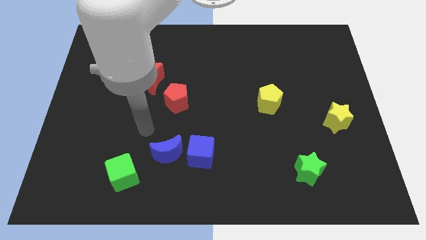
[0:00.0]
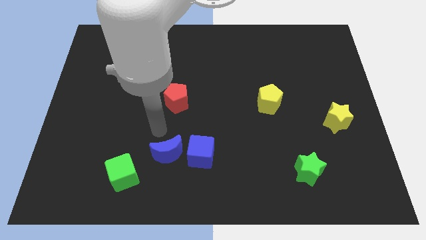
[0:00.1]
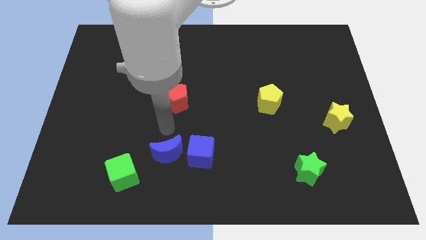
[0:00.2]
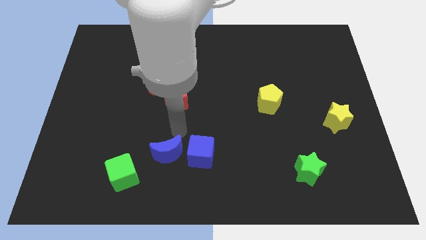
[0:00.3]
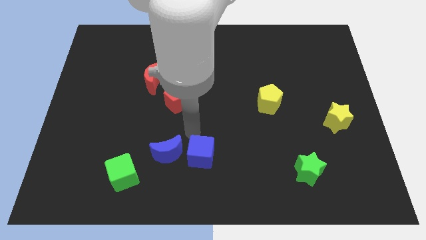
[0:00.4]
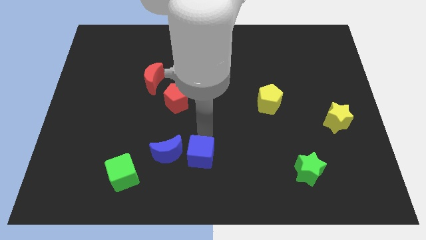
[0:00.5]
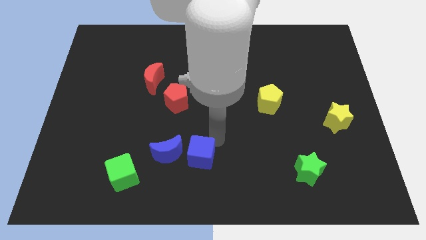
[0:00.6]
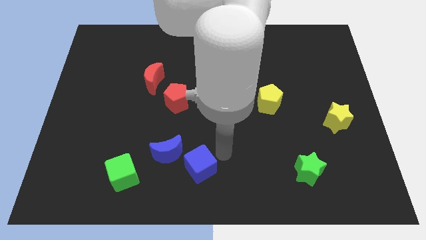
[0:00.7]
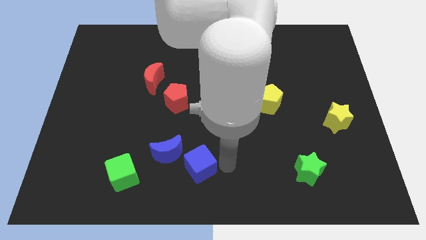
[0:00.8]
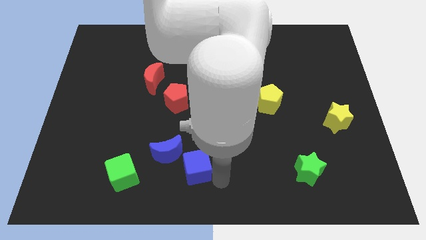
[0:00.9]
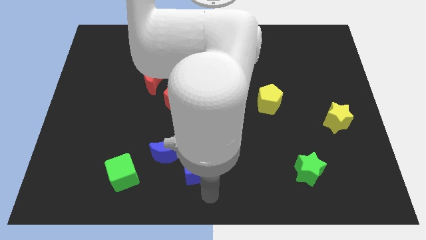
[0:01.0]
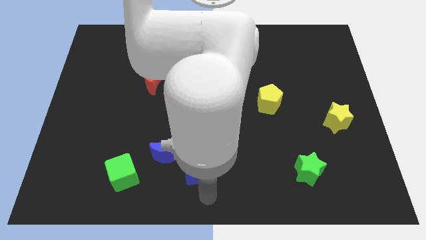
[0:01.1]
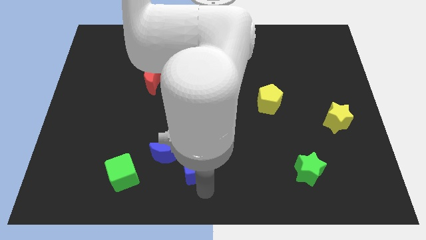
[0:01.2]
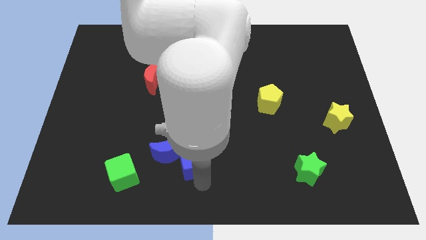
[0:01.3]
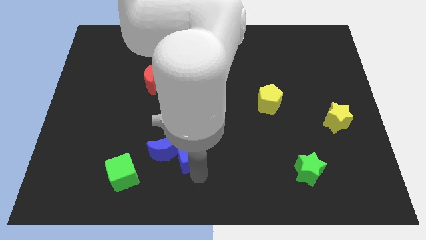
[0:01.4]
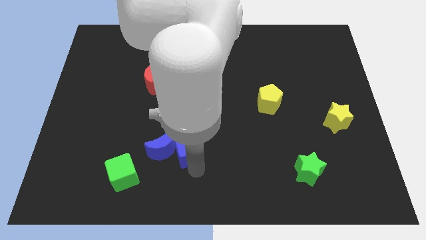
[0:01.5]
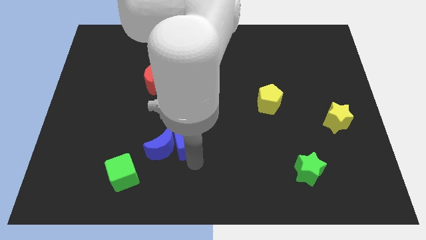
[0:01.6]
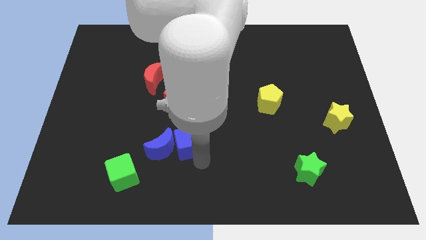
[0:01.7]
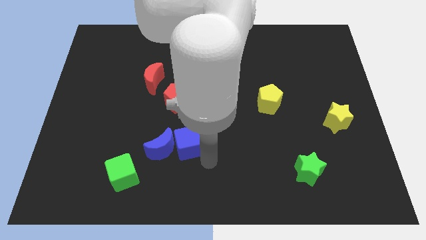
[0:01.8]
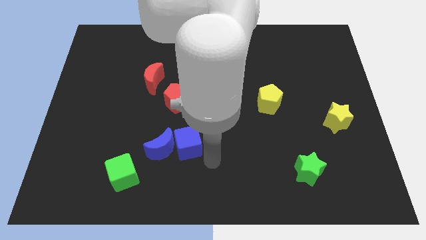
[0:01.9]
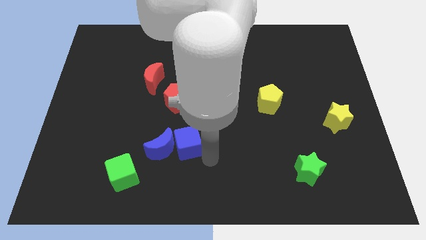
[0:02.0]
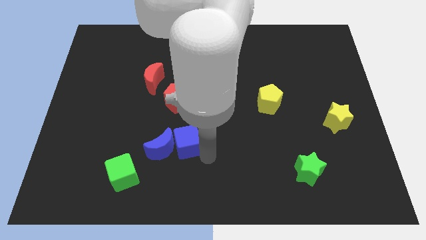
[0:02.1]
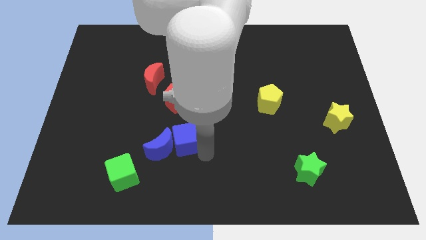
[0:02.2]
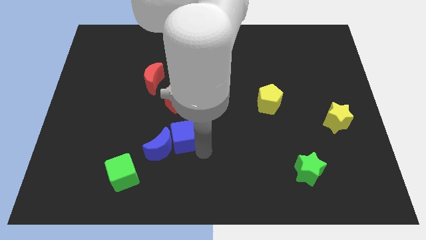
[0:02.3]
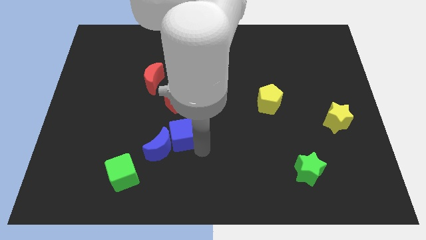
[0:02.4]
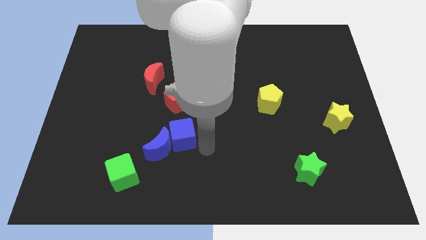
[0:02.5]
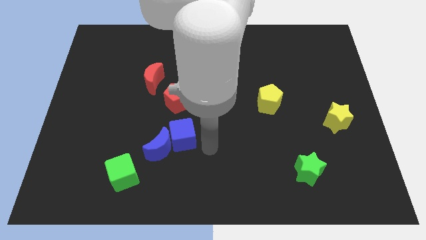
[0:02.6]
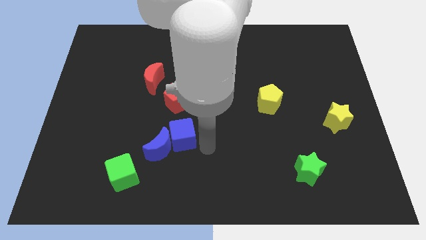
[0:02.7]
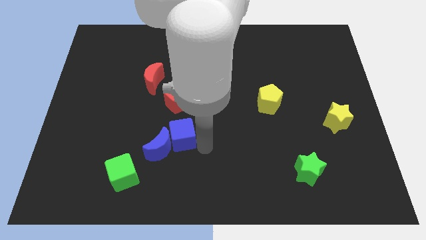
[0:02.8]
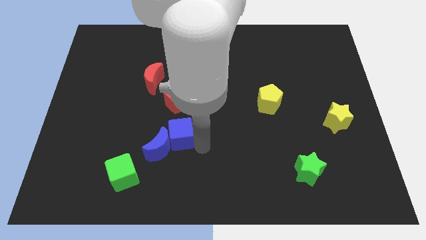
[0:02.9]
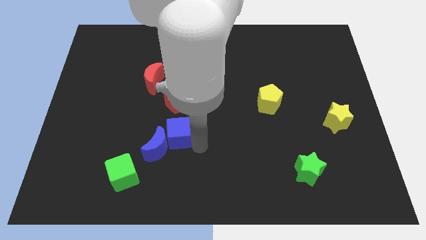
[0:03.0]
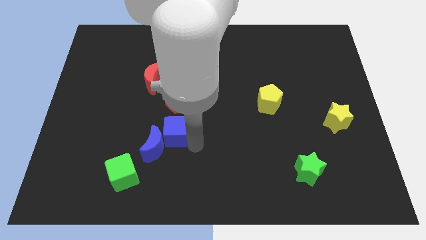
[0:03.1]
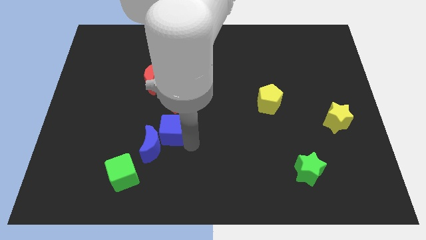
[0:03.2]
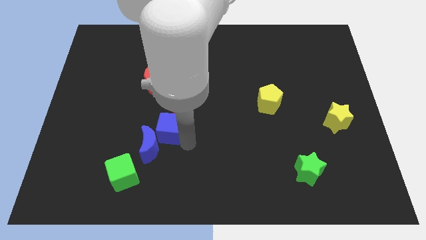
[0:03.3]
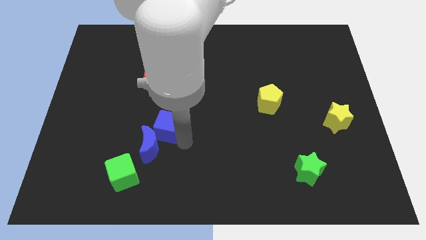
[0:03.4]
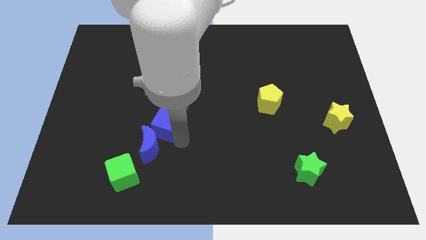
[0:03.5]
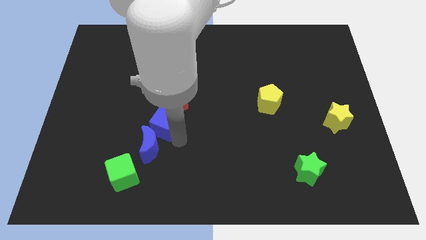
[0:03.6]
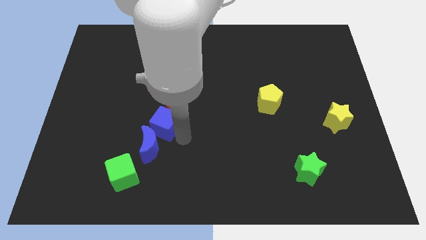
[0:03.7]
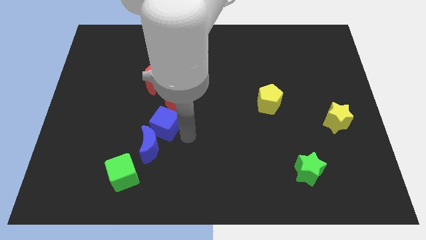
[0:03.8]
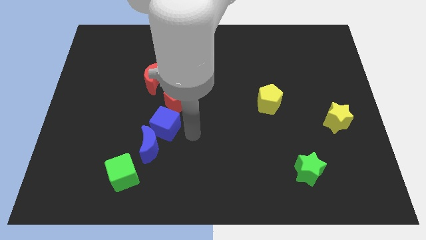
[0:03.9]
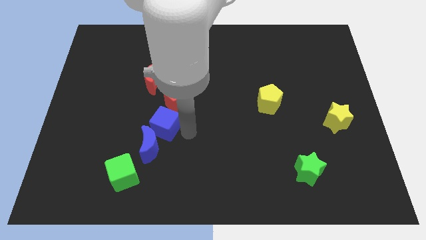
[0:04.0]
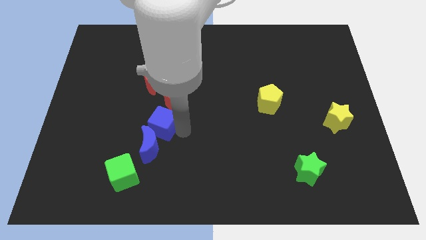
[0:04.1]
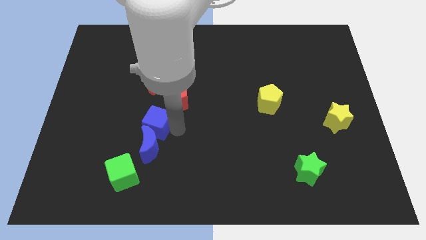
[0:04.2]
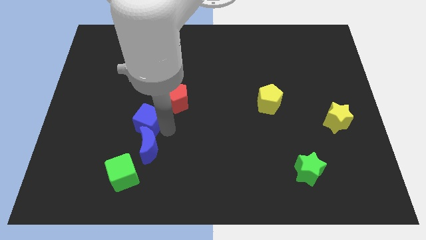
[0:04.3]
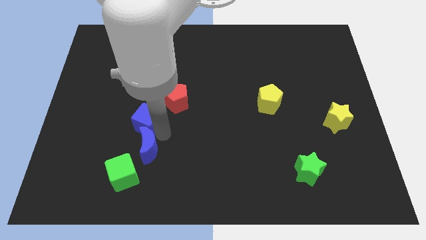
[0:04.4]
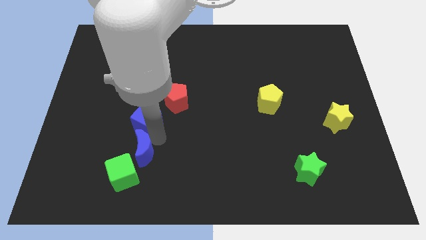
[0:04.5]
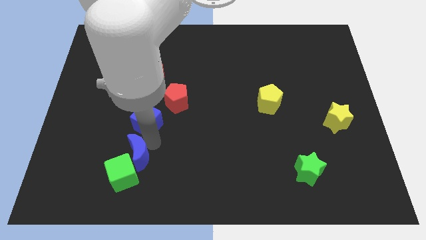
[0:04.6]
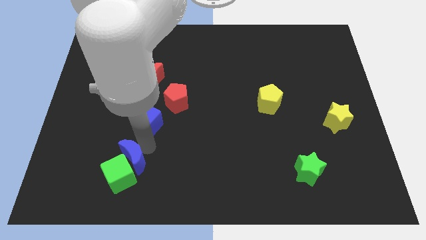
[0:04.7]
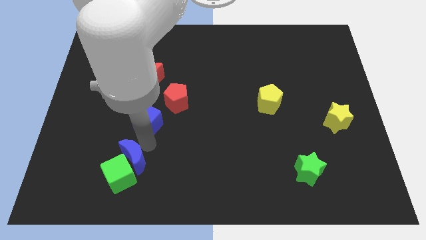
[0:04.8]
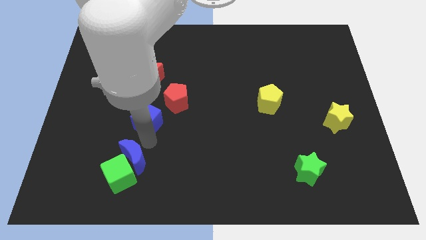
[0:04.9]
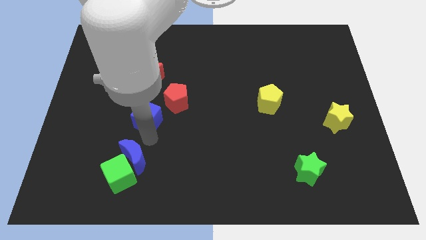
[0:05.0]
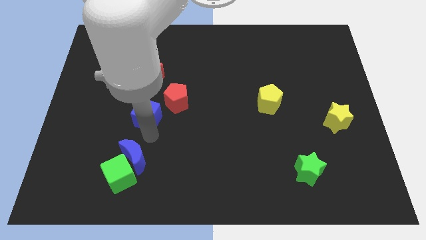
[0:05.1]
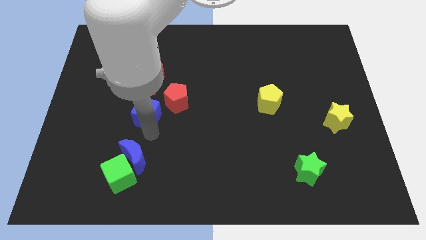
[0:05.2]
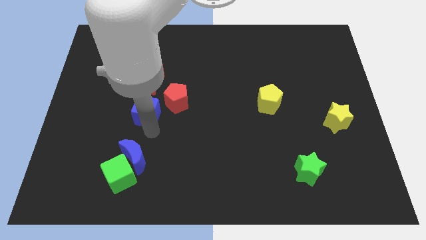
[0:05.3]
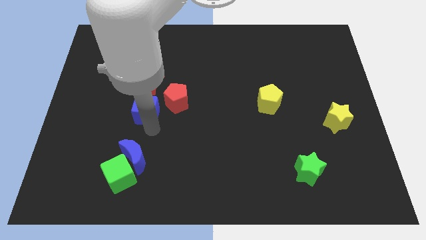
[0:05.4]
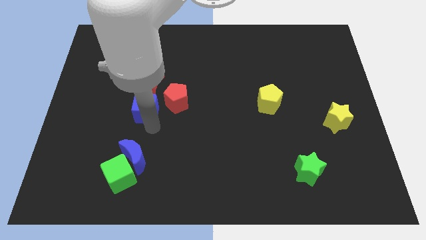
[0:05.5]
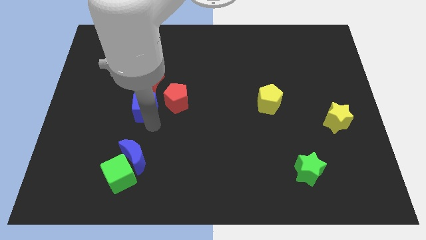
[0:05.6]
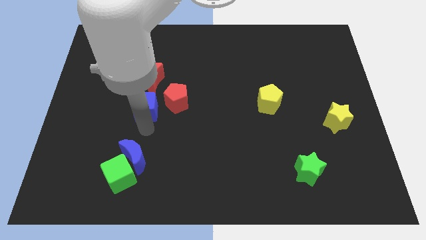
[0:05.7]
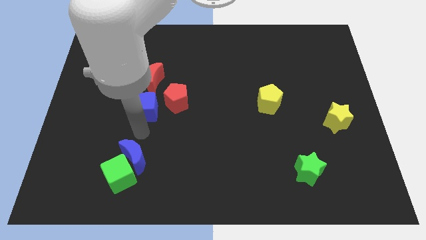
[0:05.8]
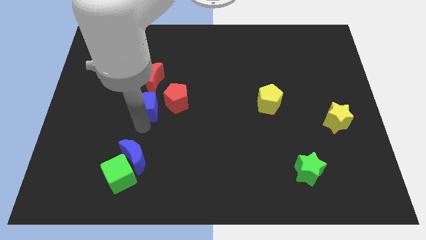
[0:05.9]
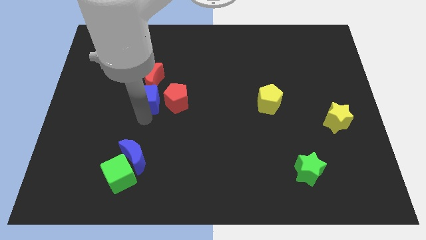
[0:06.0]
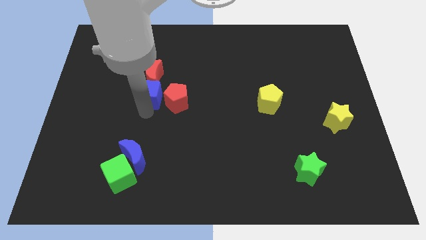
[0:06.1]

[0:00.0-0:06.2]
push the blue cube next to the red moon

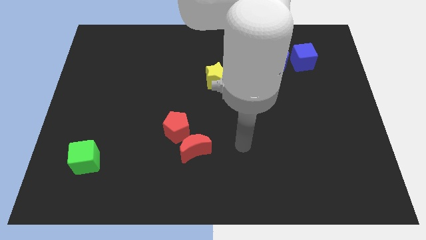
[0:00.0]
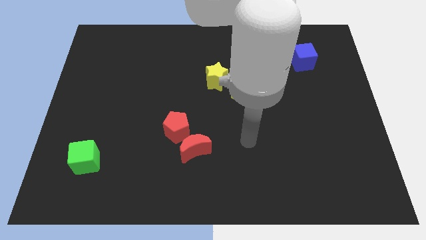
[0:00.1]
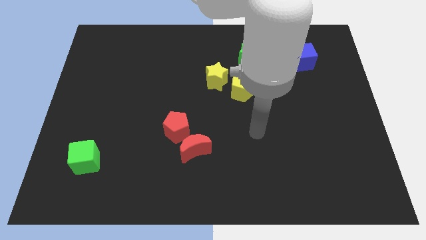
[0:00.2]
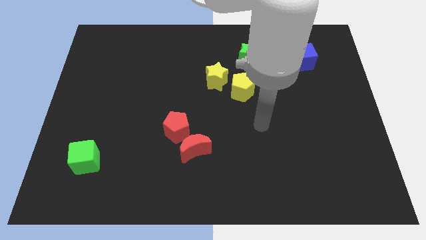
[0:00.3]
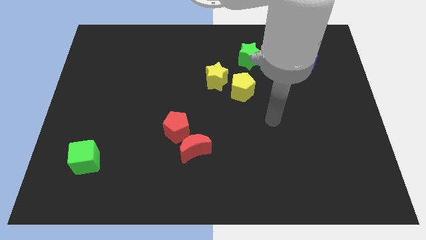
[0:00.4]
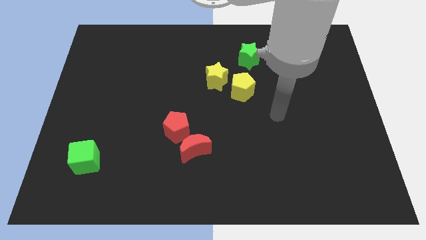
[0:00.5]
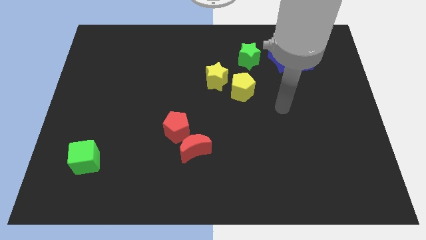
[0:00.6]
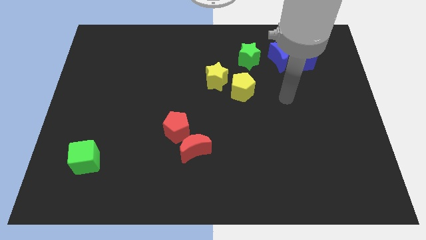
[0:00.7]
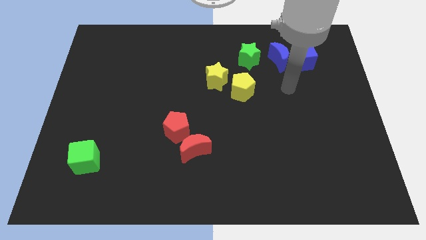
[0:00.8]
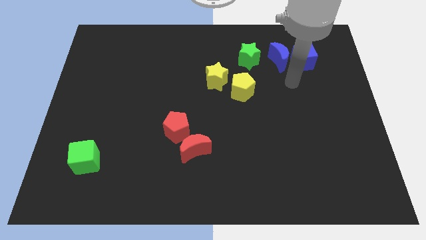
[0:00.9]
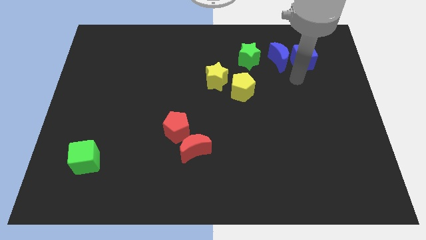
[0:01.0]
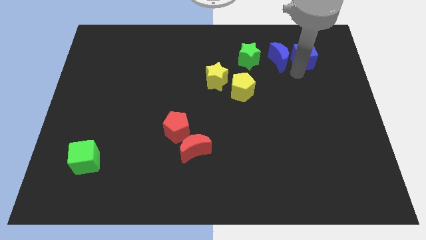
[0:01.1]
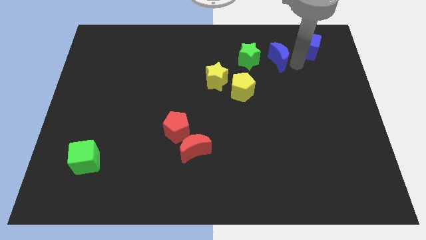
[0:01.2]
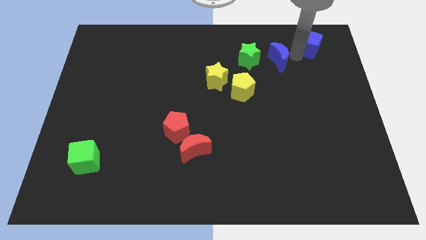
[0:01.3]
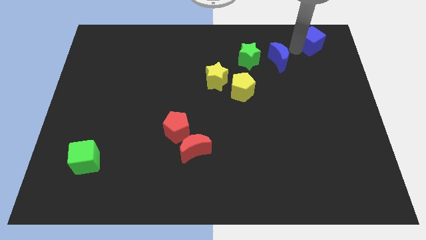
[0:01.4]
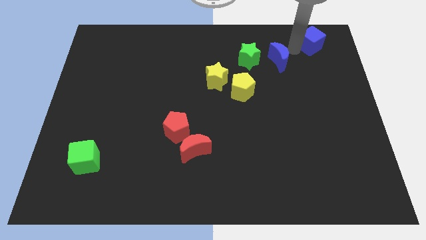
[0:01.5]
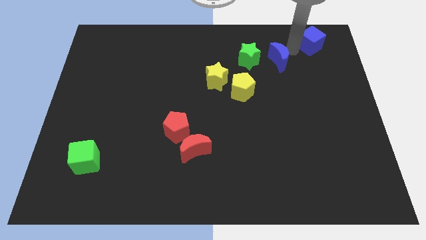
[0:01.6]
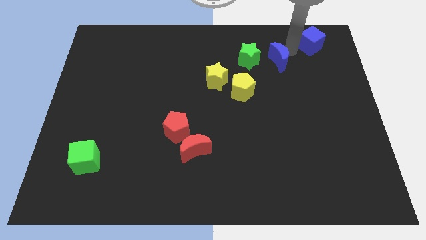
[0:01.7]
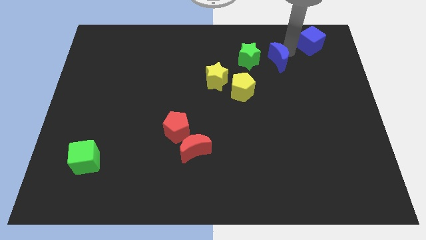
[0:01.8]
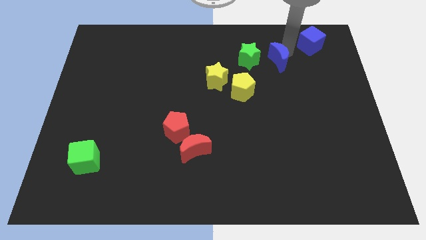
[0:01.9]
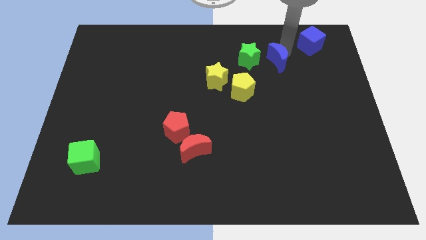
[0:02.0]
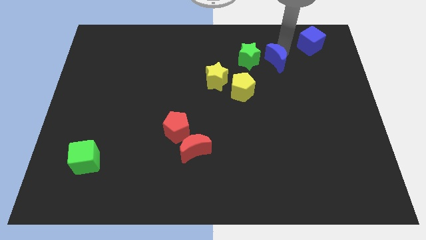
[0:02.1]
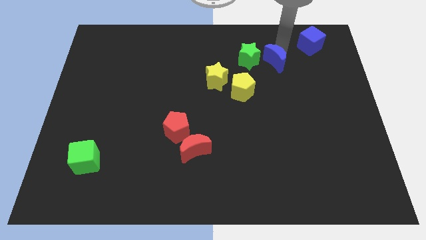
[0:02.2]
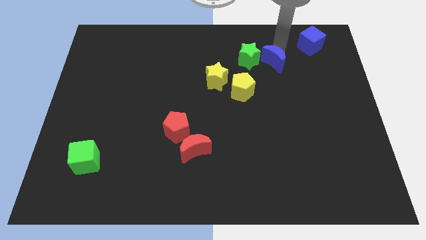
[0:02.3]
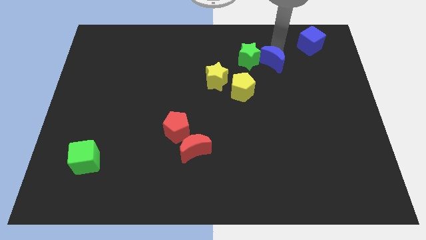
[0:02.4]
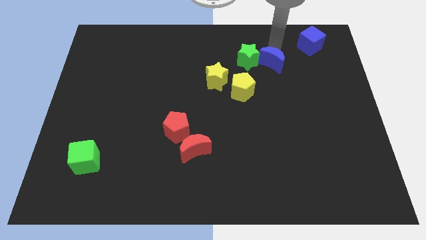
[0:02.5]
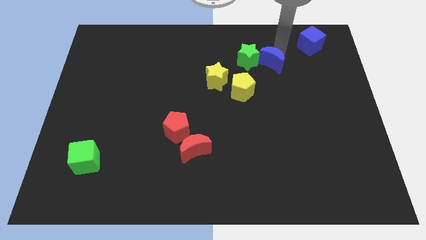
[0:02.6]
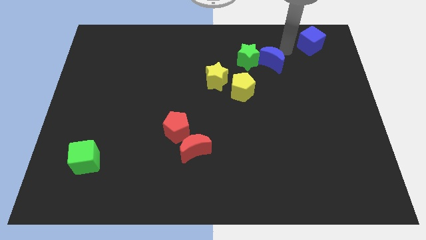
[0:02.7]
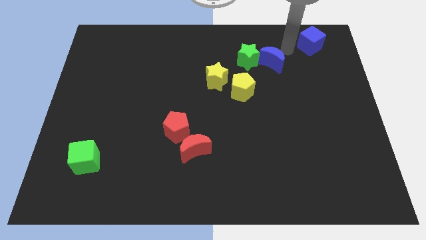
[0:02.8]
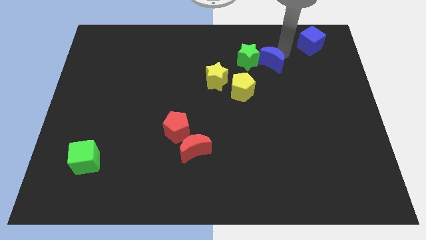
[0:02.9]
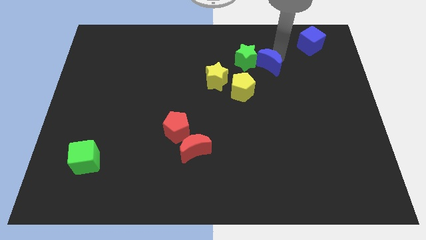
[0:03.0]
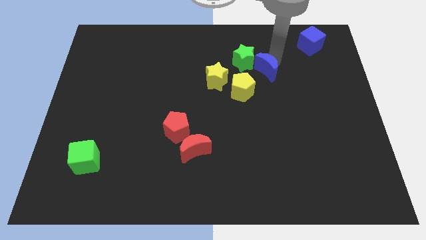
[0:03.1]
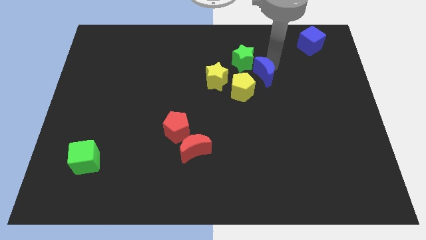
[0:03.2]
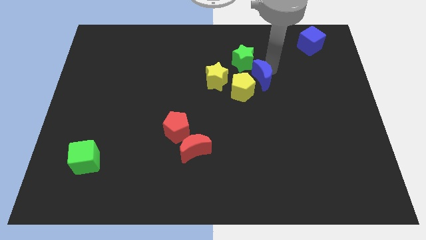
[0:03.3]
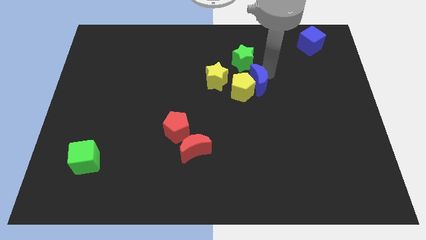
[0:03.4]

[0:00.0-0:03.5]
slide the blue moon next to the yellow pentagon
